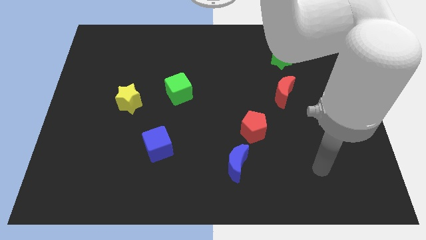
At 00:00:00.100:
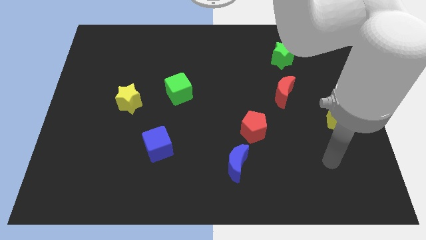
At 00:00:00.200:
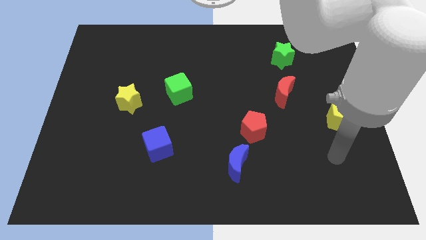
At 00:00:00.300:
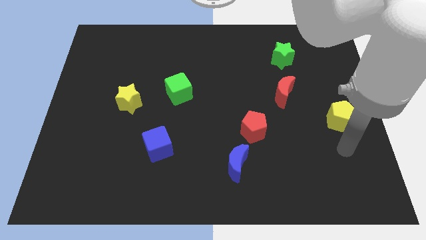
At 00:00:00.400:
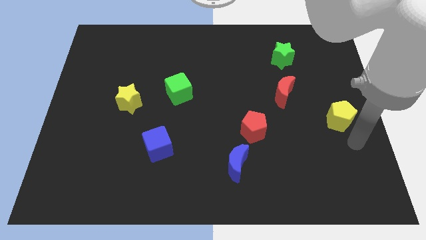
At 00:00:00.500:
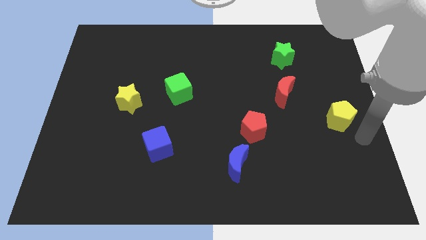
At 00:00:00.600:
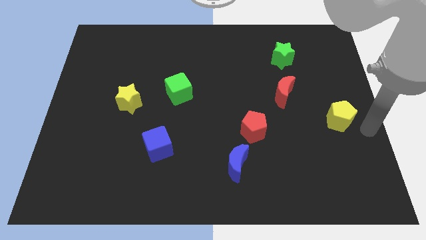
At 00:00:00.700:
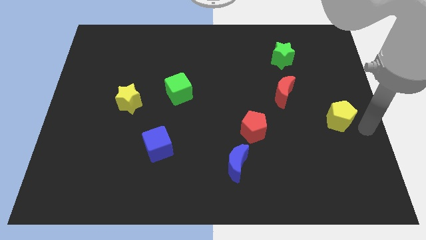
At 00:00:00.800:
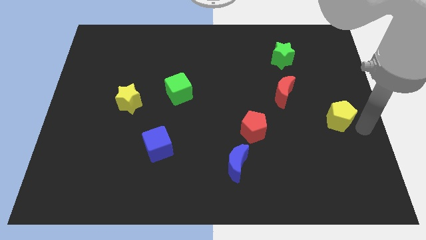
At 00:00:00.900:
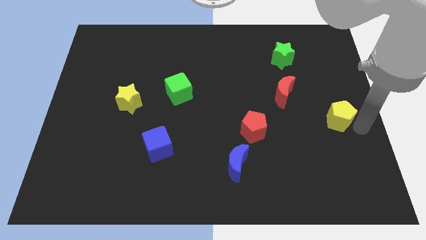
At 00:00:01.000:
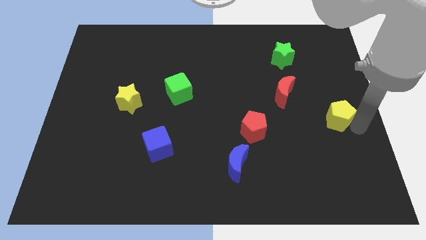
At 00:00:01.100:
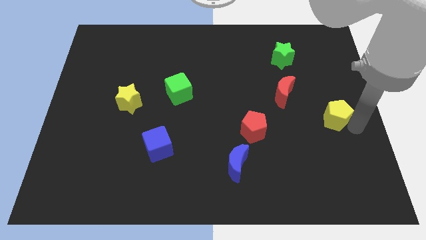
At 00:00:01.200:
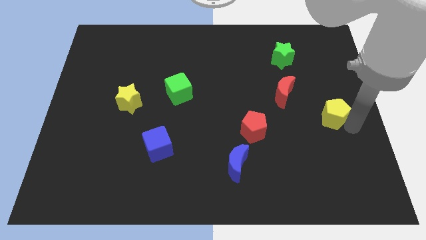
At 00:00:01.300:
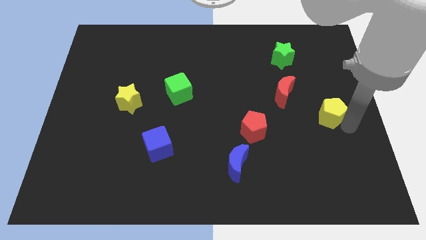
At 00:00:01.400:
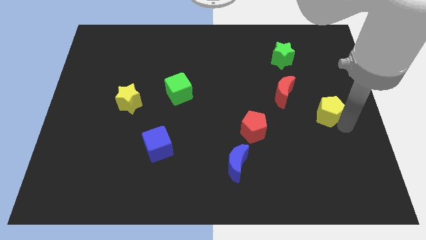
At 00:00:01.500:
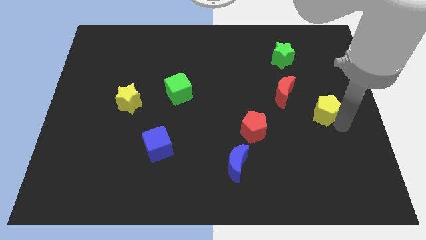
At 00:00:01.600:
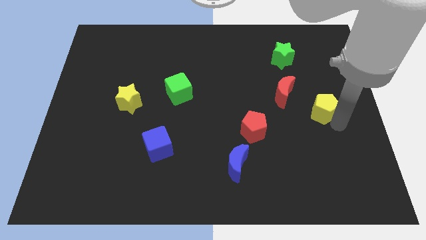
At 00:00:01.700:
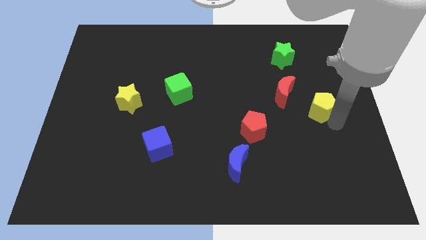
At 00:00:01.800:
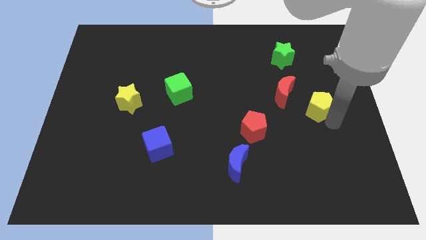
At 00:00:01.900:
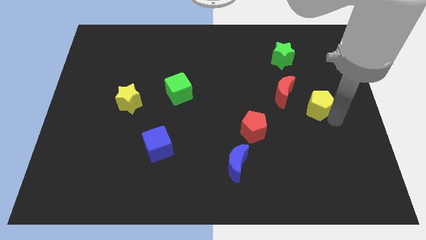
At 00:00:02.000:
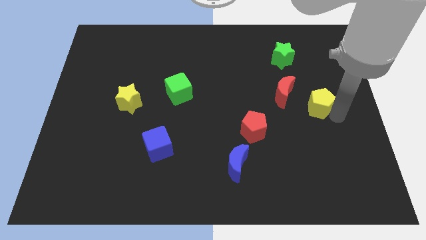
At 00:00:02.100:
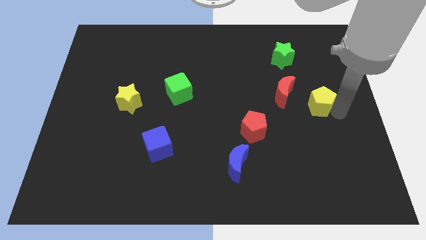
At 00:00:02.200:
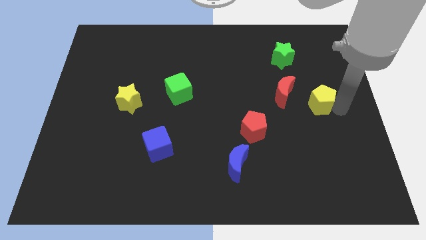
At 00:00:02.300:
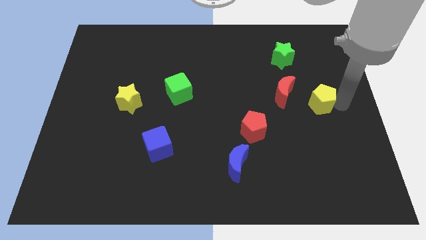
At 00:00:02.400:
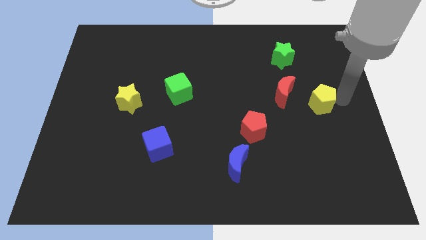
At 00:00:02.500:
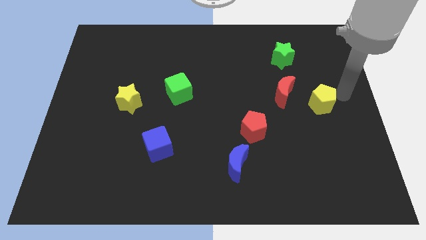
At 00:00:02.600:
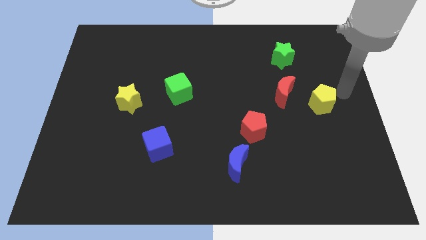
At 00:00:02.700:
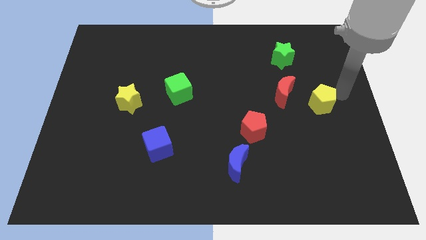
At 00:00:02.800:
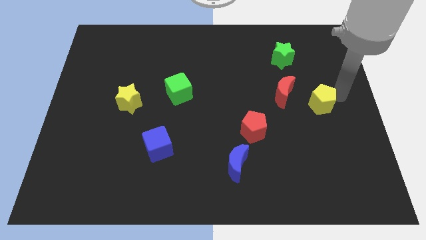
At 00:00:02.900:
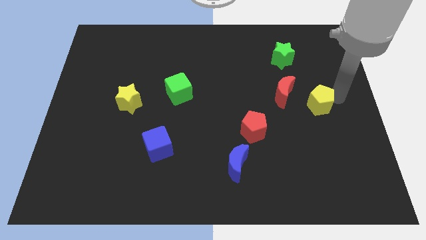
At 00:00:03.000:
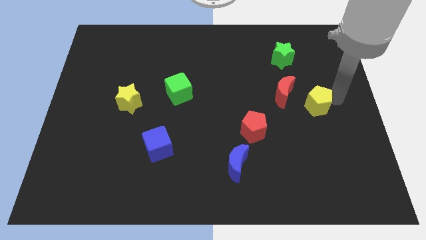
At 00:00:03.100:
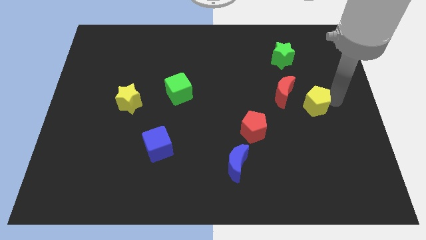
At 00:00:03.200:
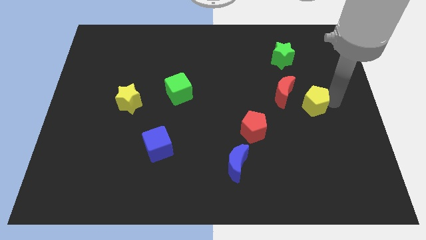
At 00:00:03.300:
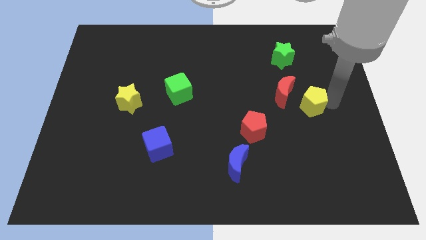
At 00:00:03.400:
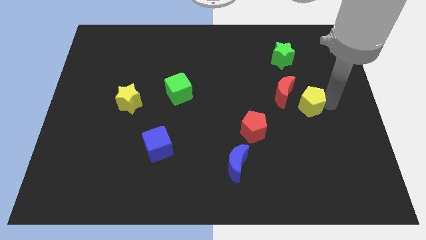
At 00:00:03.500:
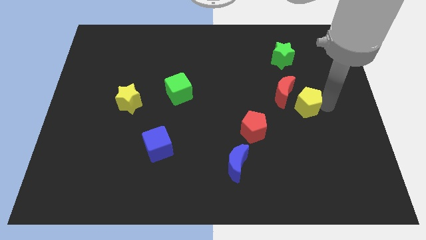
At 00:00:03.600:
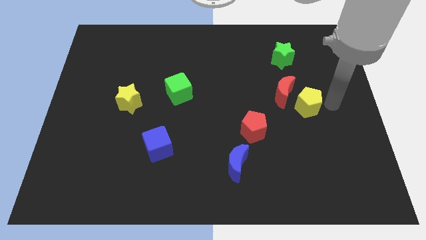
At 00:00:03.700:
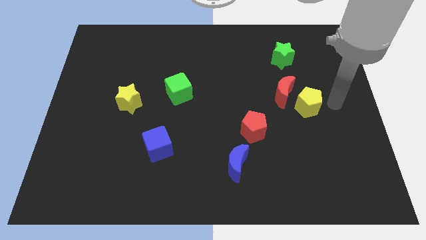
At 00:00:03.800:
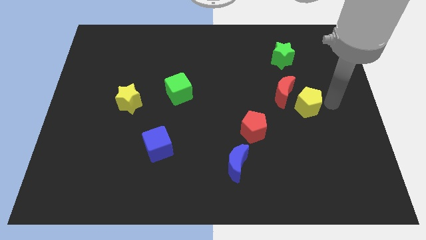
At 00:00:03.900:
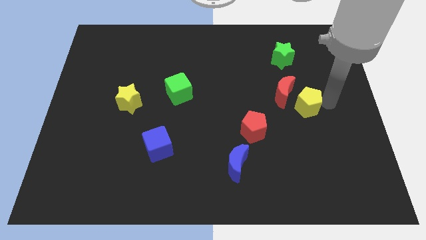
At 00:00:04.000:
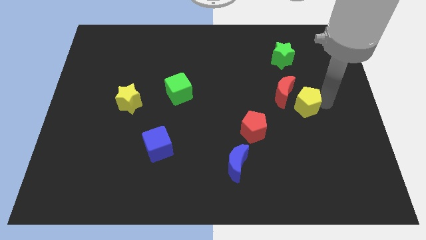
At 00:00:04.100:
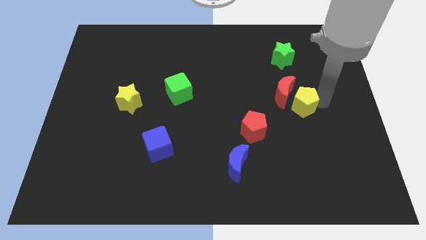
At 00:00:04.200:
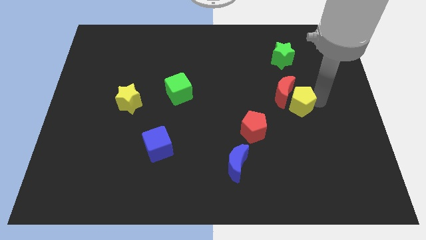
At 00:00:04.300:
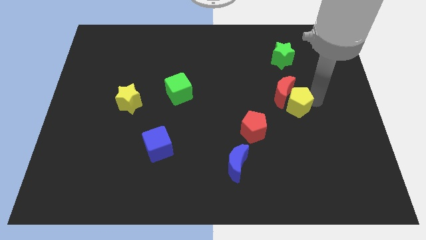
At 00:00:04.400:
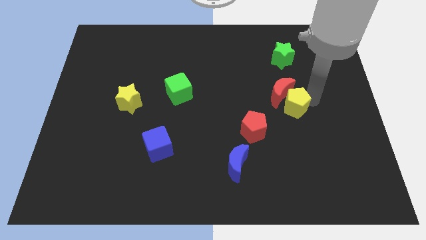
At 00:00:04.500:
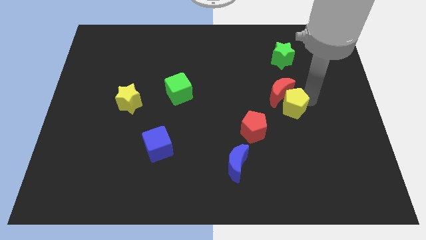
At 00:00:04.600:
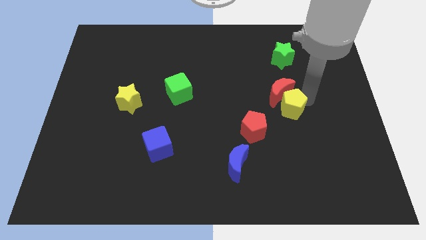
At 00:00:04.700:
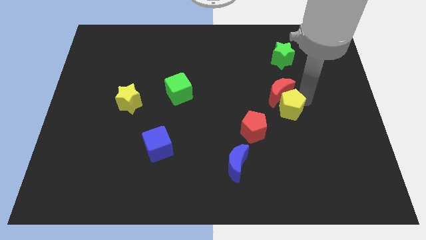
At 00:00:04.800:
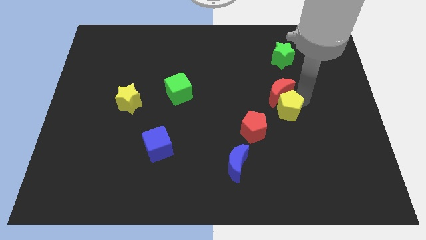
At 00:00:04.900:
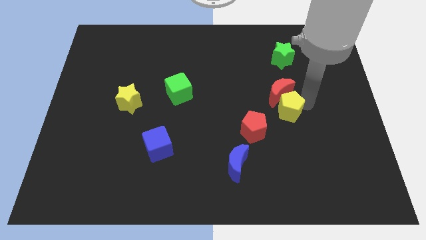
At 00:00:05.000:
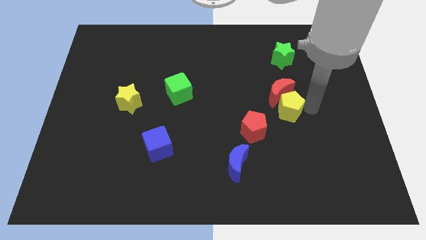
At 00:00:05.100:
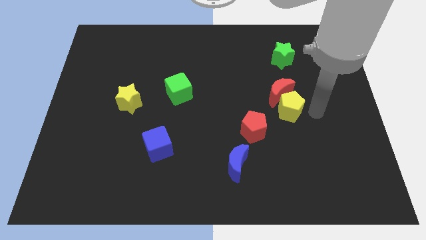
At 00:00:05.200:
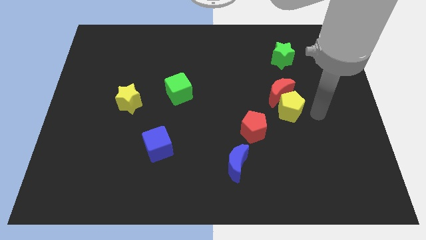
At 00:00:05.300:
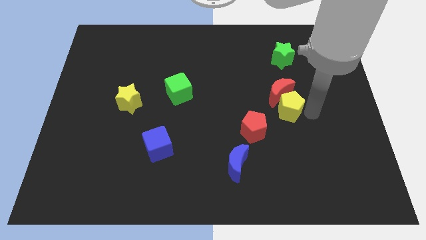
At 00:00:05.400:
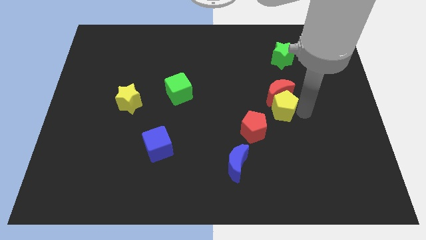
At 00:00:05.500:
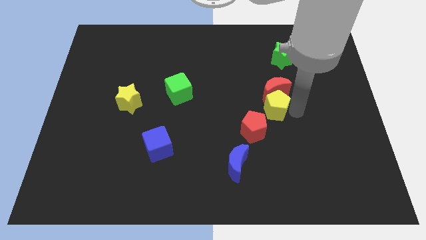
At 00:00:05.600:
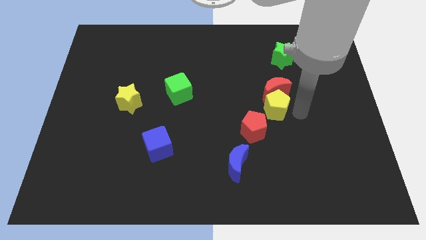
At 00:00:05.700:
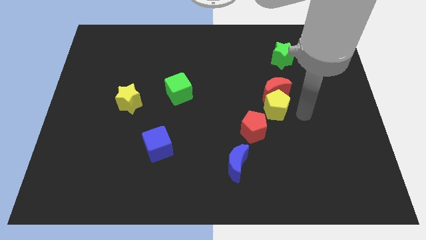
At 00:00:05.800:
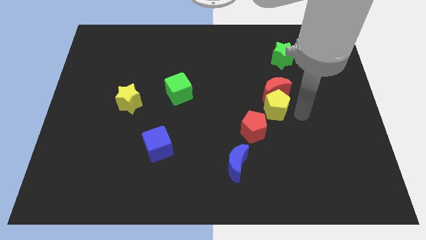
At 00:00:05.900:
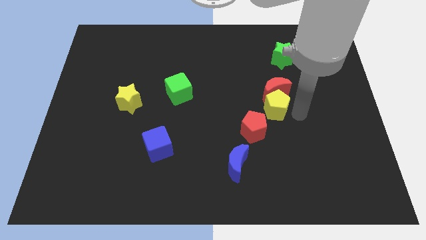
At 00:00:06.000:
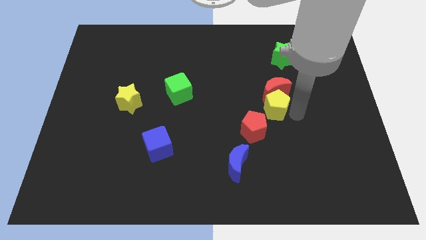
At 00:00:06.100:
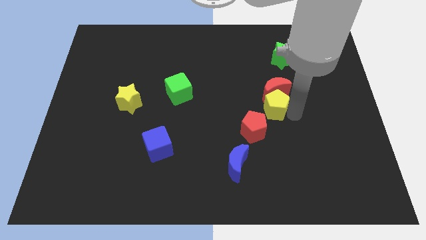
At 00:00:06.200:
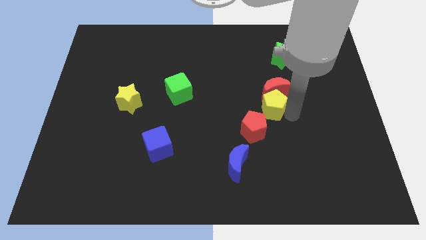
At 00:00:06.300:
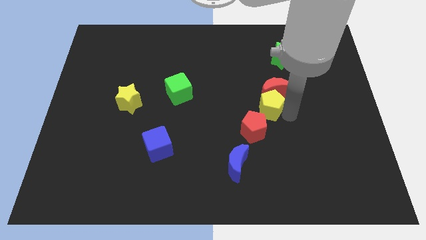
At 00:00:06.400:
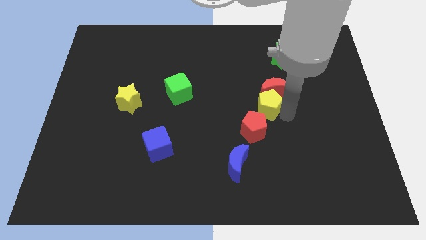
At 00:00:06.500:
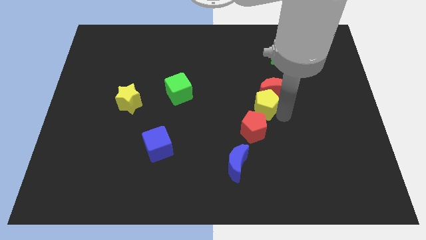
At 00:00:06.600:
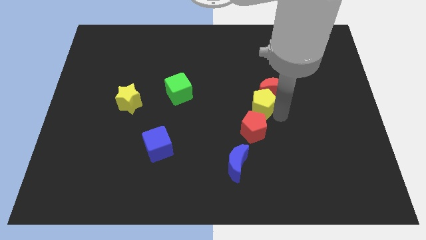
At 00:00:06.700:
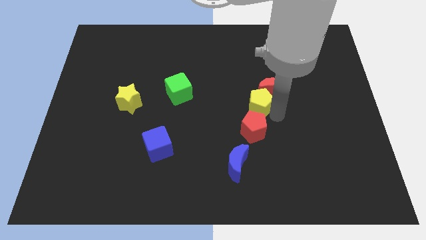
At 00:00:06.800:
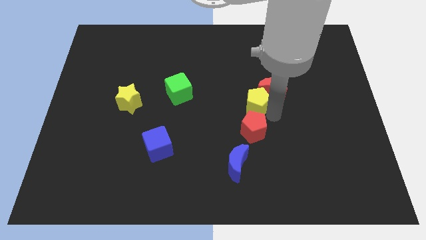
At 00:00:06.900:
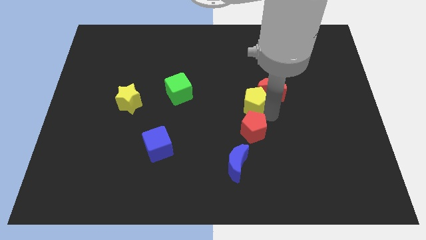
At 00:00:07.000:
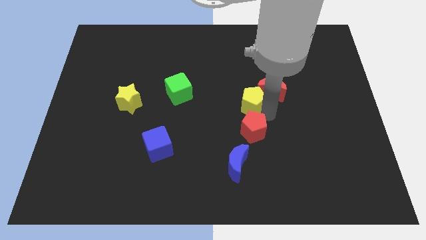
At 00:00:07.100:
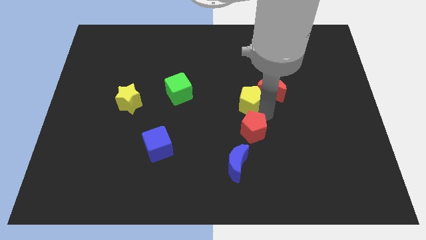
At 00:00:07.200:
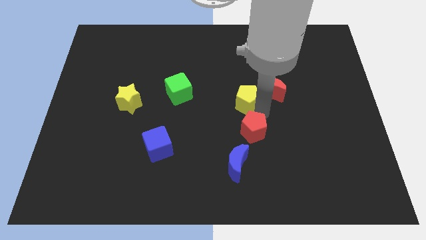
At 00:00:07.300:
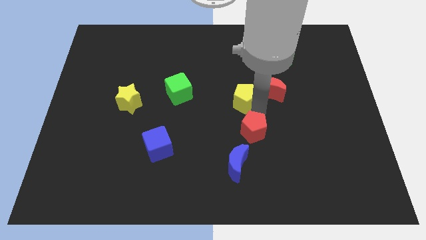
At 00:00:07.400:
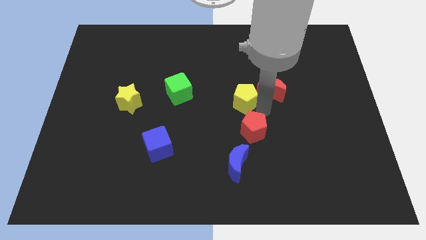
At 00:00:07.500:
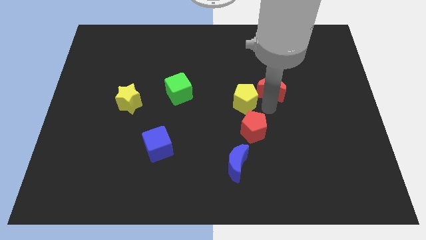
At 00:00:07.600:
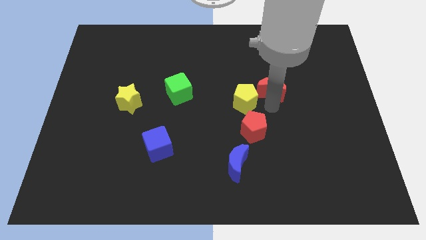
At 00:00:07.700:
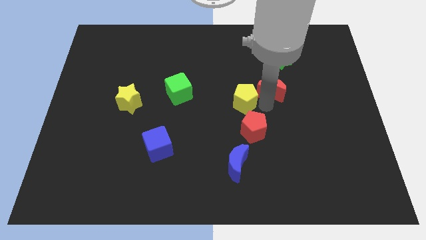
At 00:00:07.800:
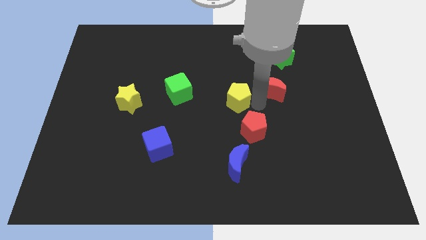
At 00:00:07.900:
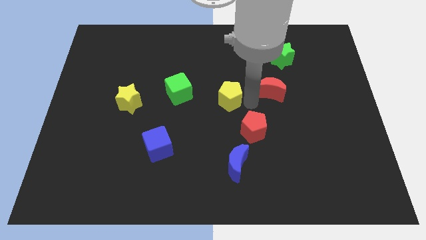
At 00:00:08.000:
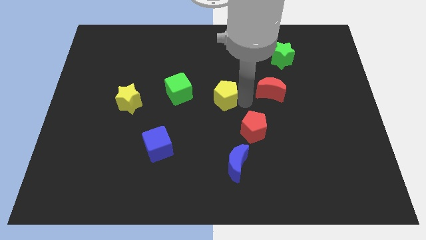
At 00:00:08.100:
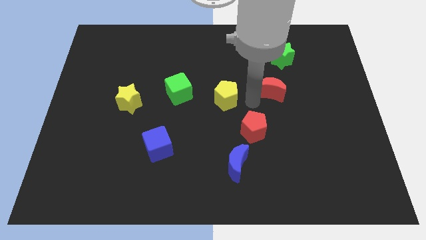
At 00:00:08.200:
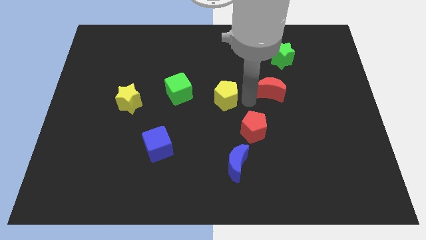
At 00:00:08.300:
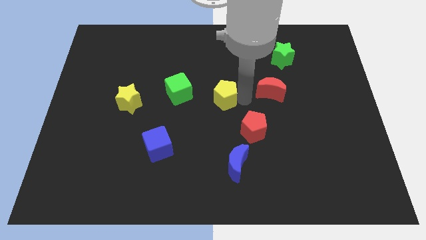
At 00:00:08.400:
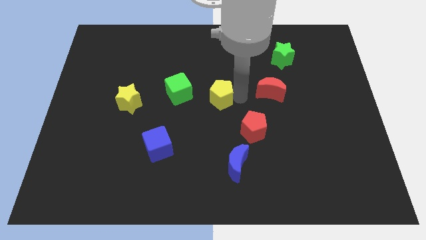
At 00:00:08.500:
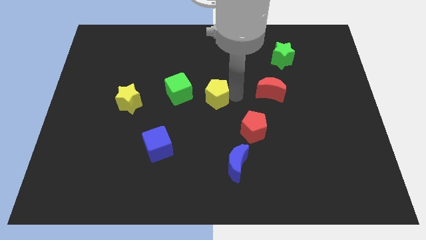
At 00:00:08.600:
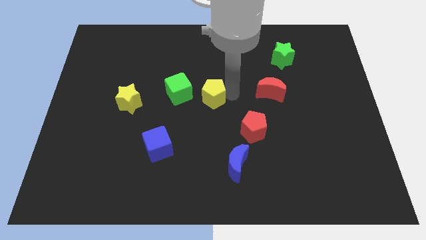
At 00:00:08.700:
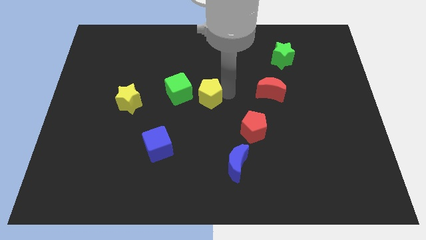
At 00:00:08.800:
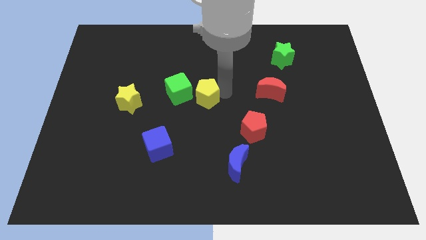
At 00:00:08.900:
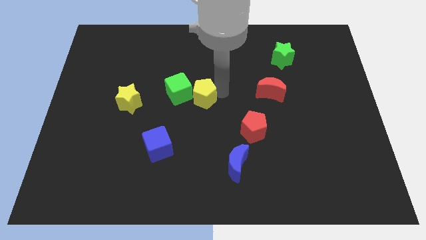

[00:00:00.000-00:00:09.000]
slide the yellow pentagon next to the green cube
